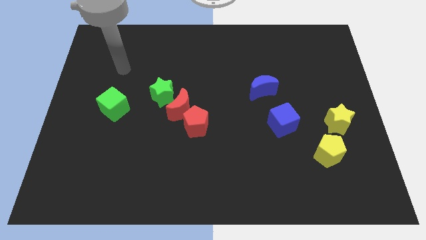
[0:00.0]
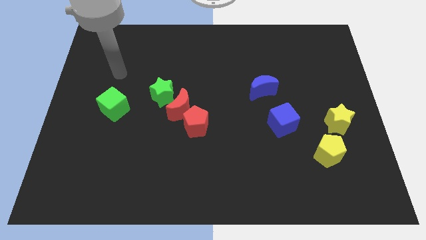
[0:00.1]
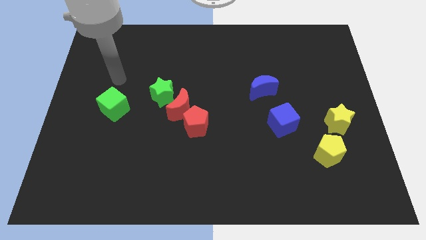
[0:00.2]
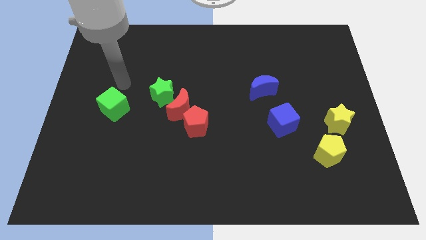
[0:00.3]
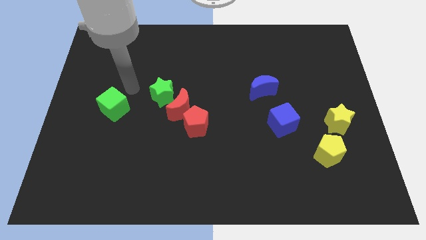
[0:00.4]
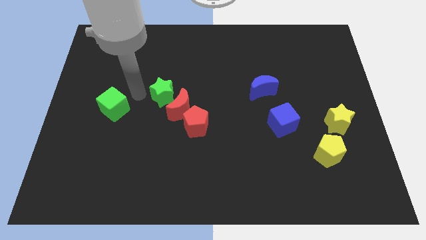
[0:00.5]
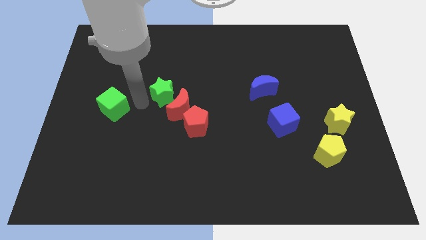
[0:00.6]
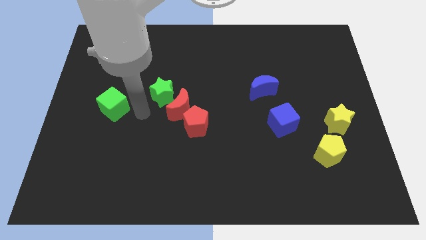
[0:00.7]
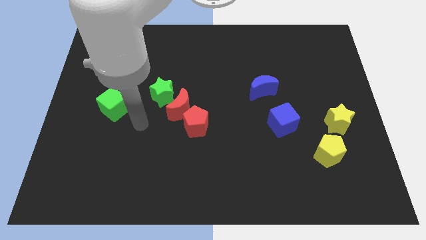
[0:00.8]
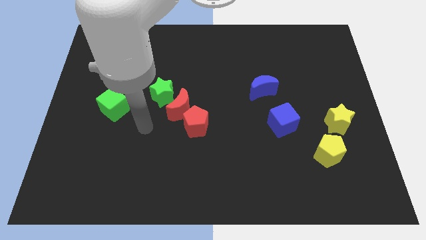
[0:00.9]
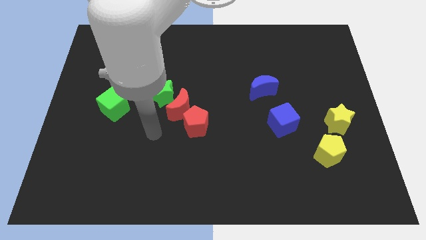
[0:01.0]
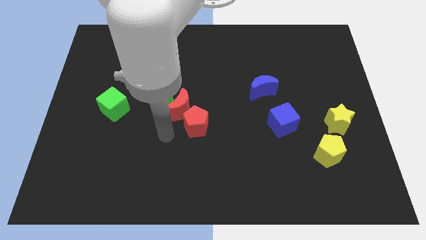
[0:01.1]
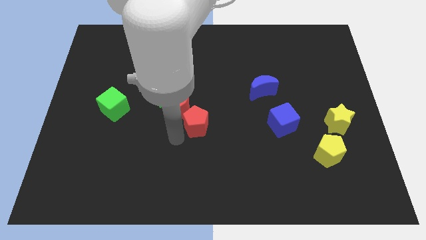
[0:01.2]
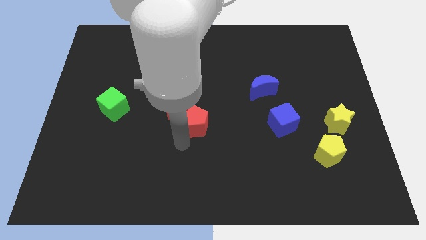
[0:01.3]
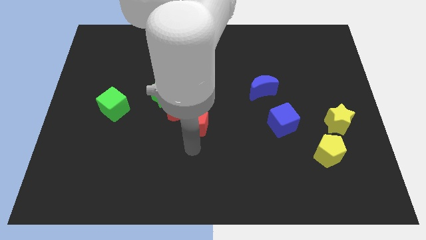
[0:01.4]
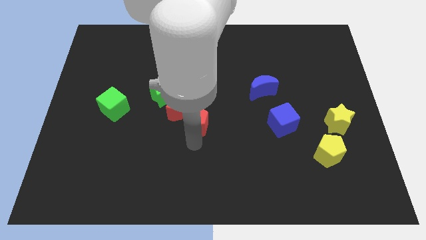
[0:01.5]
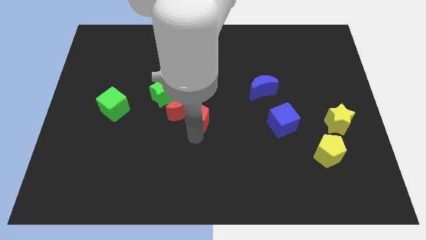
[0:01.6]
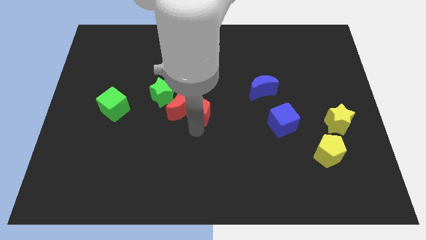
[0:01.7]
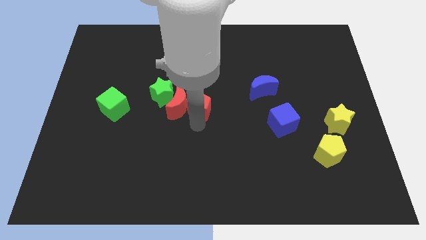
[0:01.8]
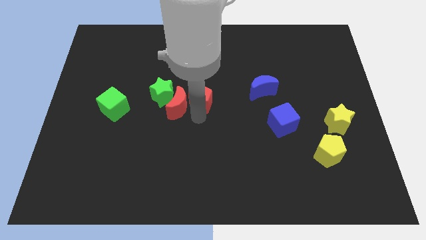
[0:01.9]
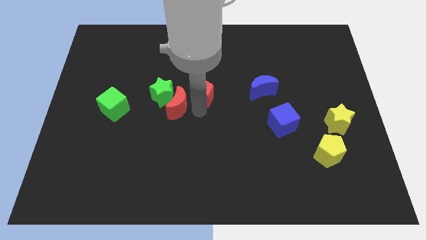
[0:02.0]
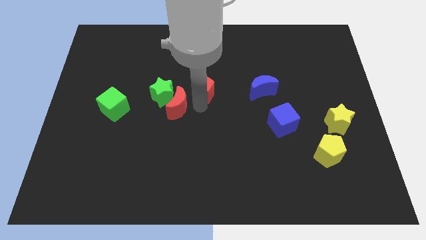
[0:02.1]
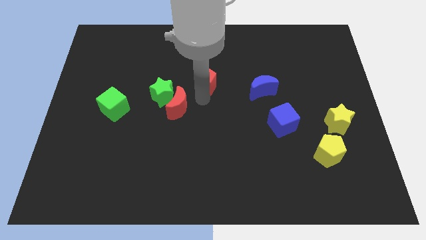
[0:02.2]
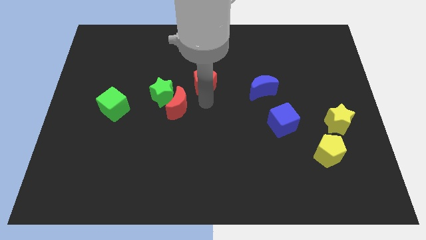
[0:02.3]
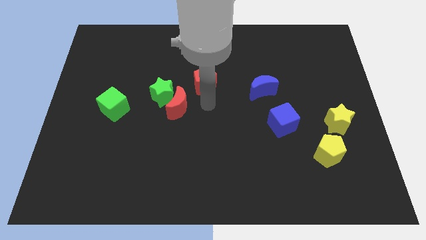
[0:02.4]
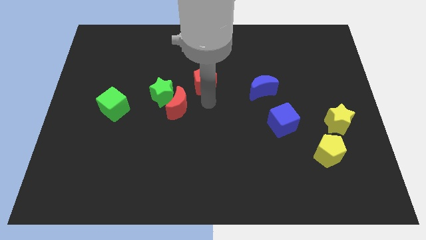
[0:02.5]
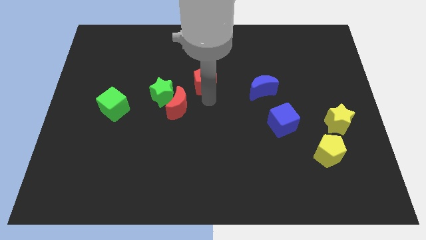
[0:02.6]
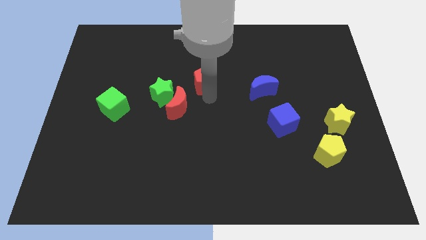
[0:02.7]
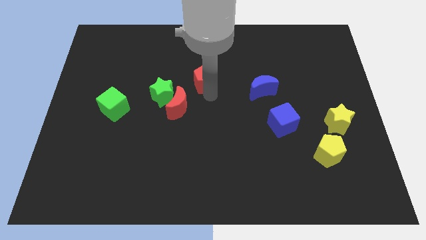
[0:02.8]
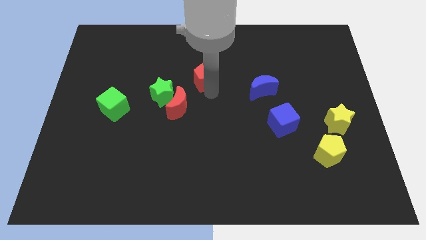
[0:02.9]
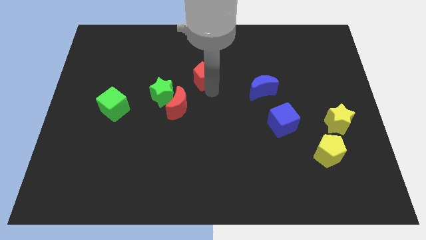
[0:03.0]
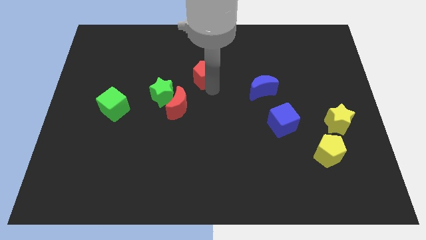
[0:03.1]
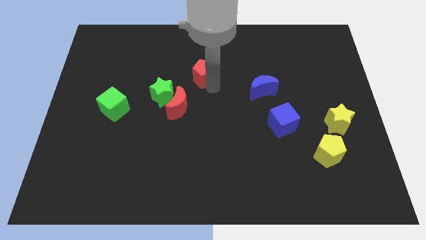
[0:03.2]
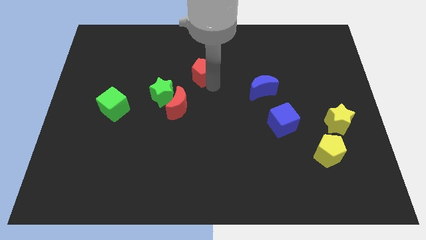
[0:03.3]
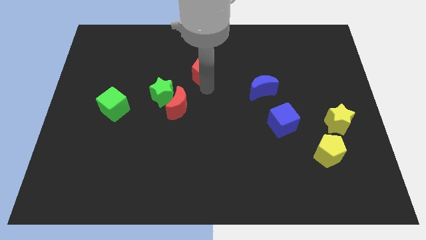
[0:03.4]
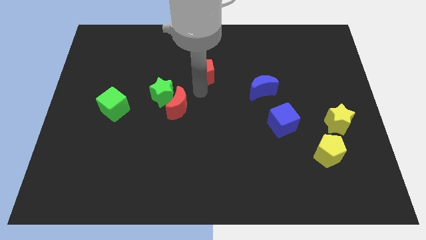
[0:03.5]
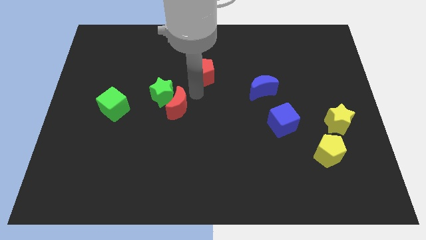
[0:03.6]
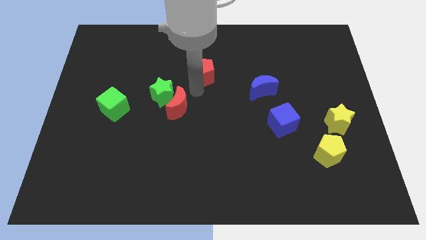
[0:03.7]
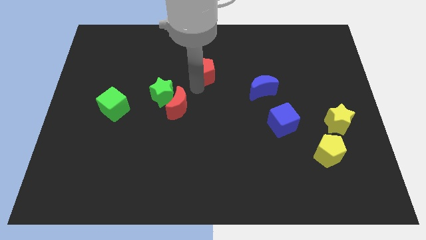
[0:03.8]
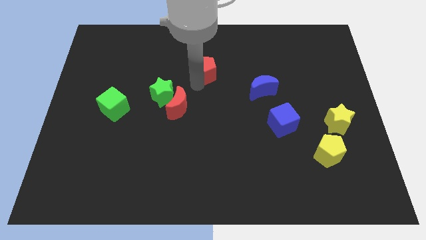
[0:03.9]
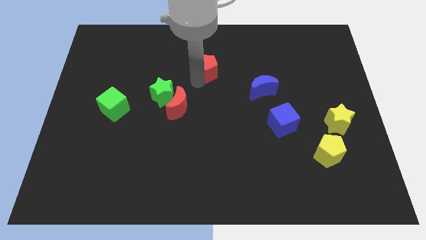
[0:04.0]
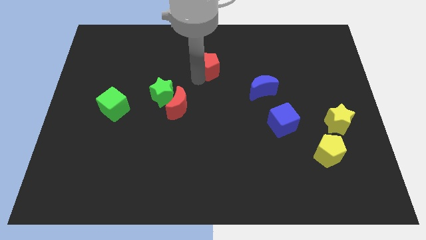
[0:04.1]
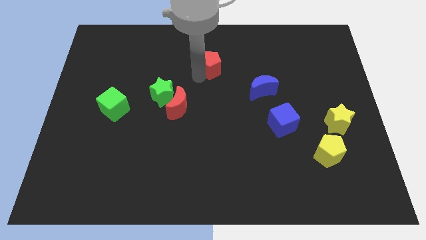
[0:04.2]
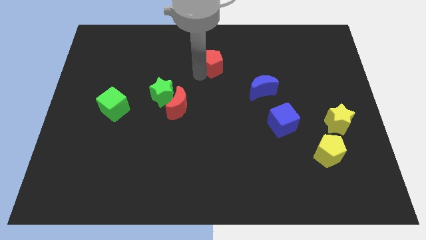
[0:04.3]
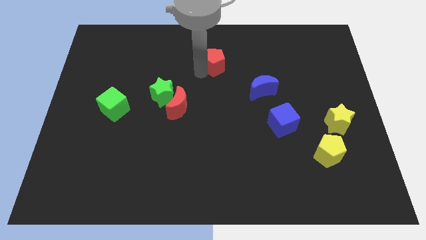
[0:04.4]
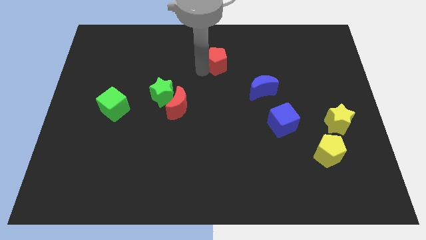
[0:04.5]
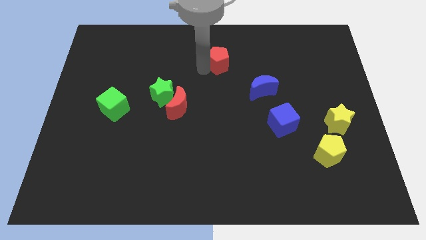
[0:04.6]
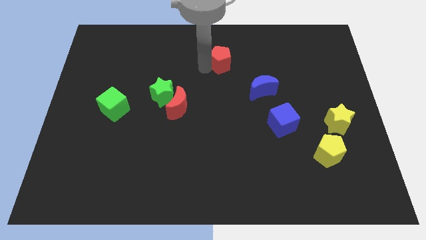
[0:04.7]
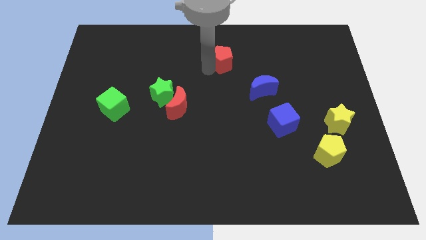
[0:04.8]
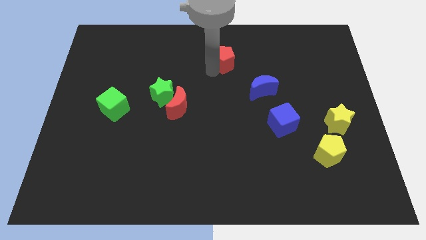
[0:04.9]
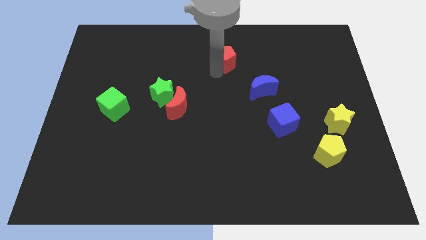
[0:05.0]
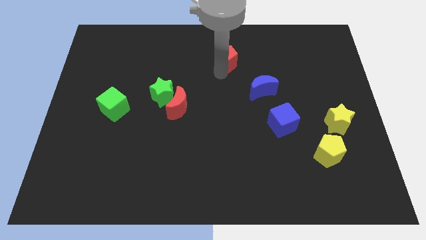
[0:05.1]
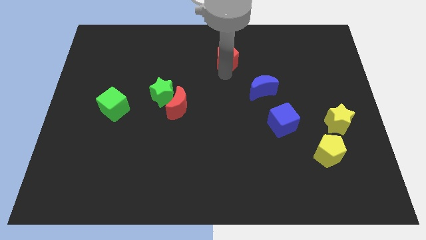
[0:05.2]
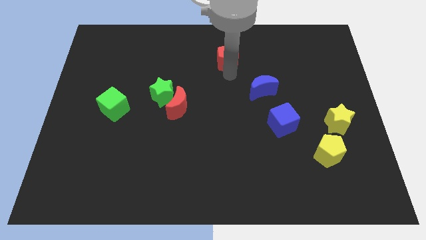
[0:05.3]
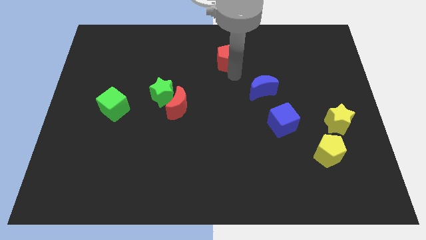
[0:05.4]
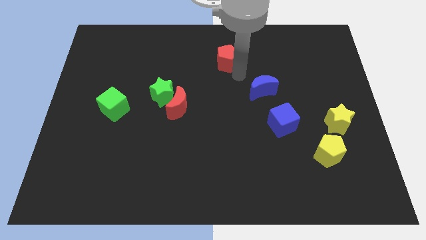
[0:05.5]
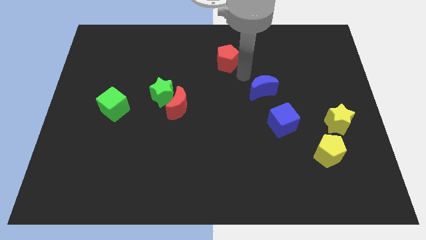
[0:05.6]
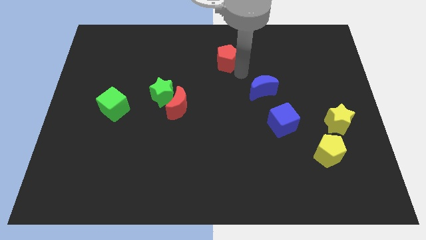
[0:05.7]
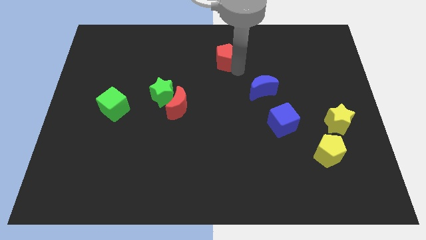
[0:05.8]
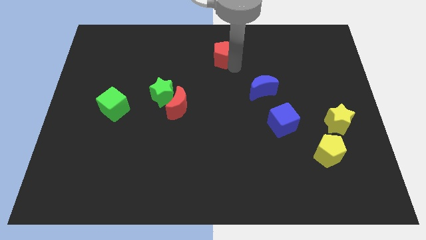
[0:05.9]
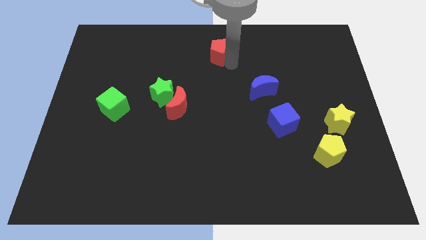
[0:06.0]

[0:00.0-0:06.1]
put the red pentagon to the top
